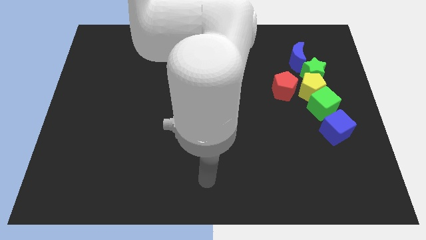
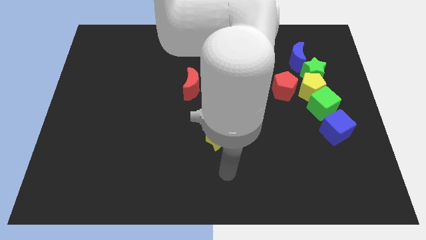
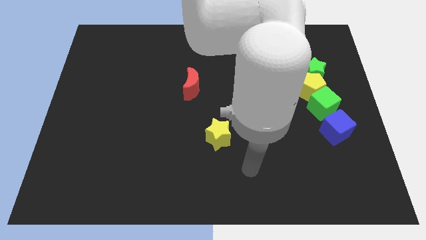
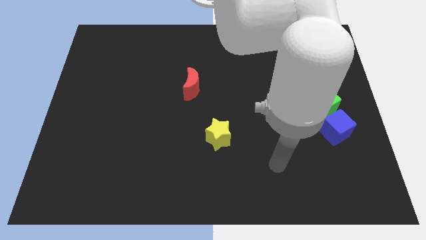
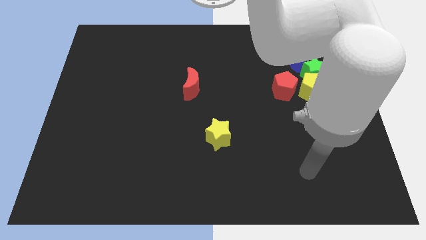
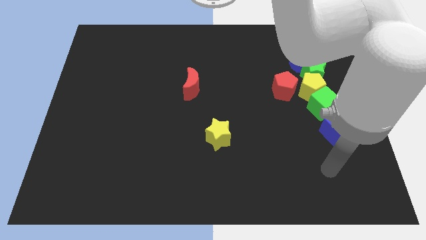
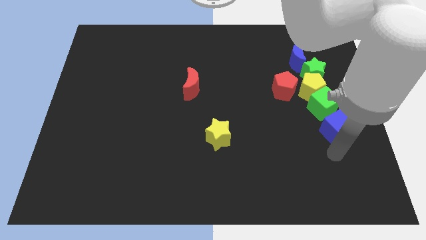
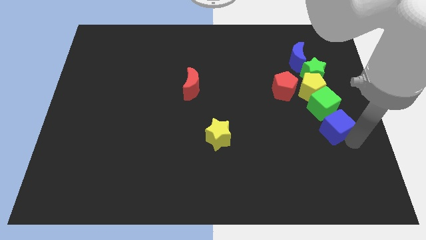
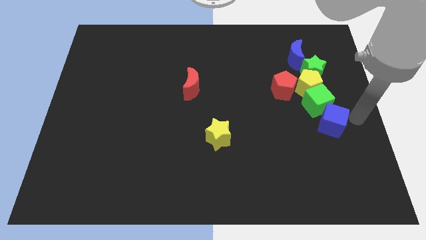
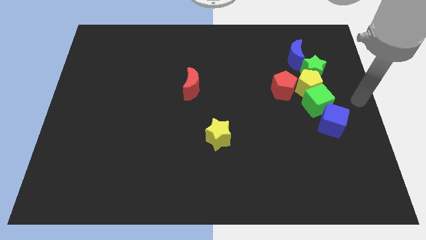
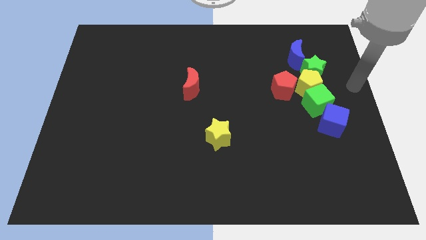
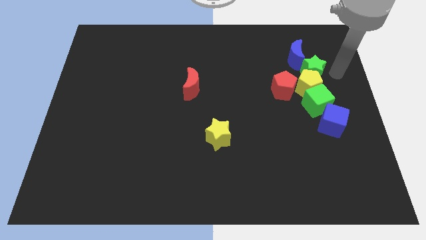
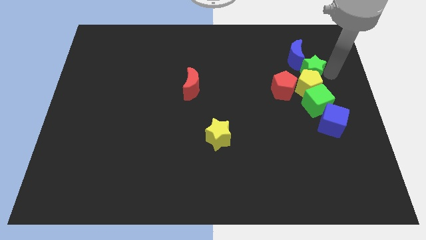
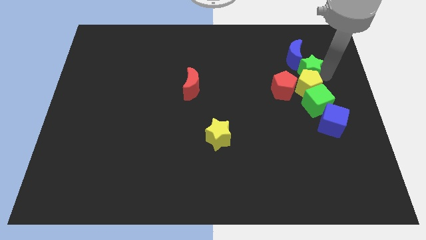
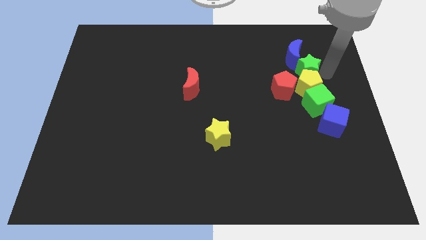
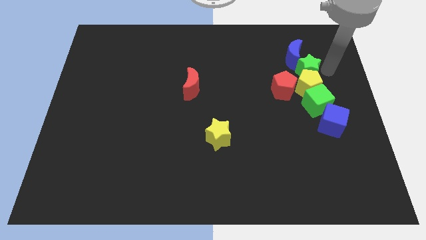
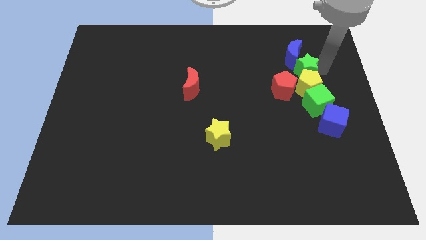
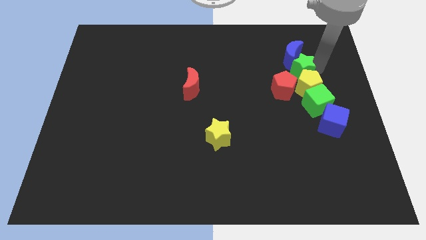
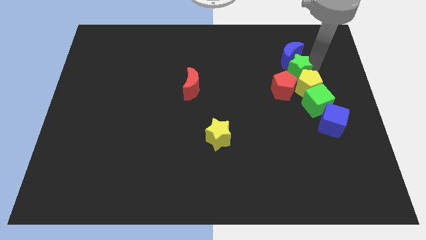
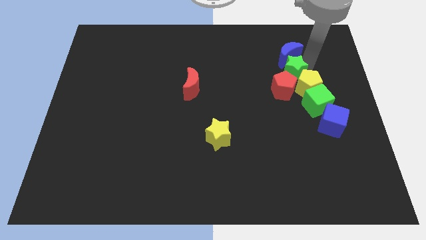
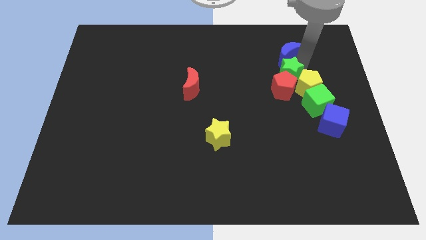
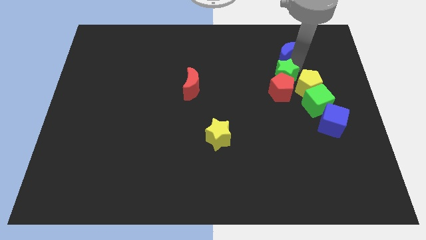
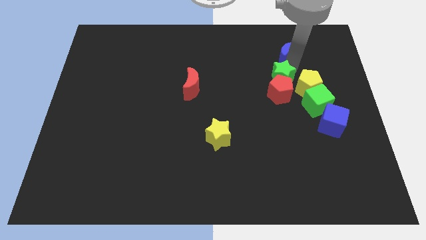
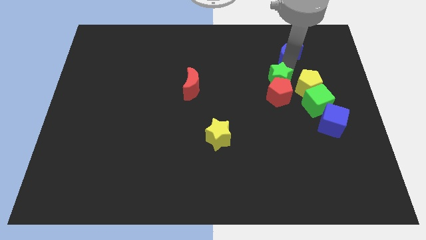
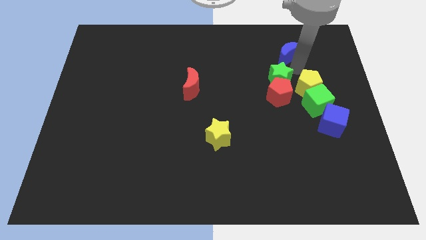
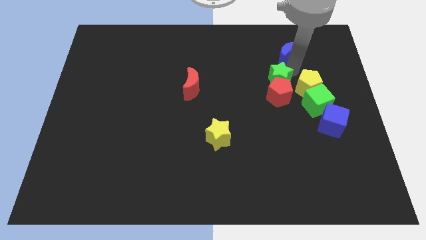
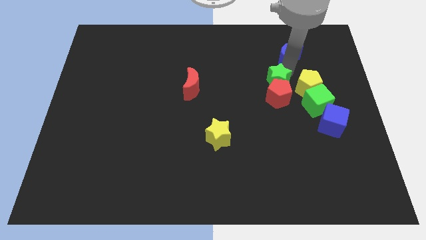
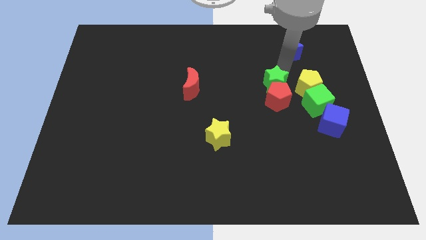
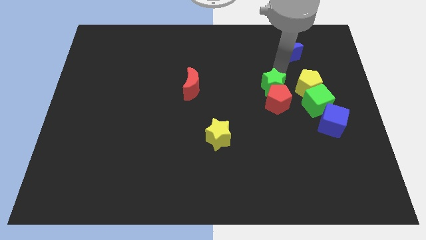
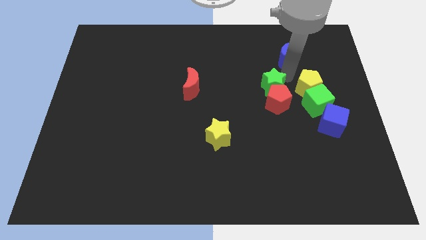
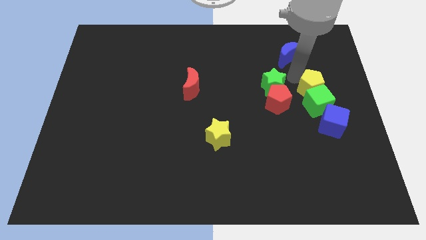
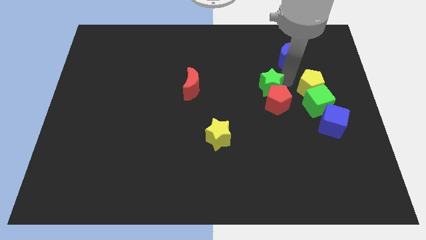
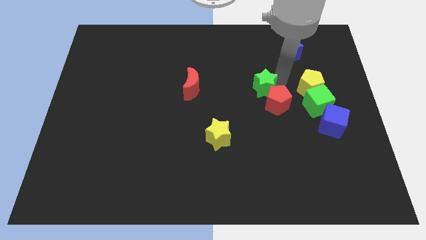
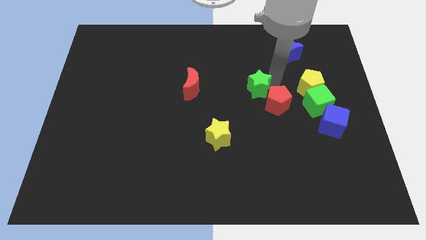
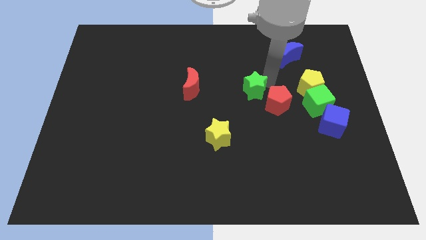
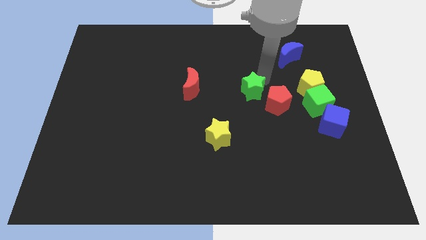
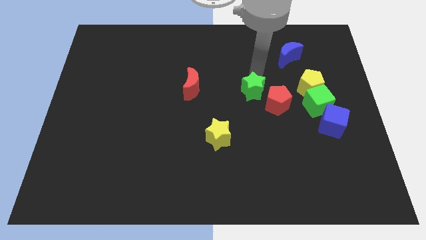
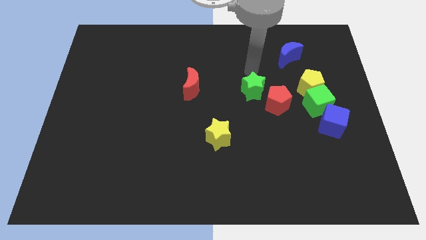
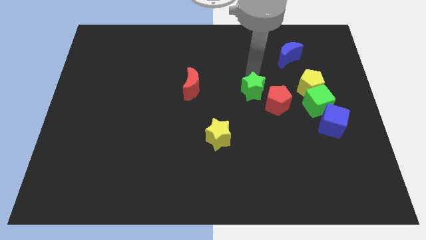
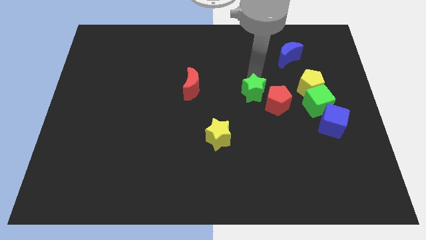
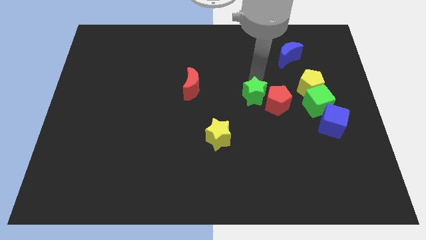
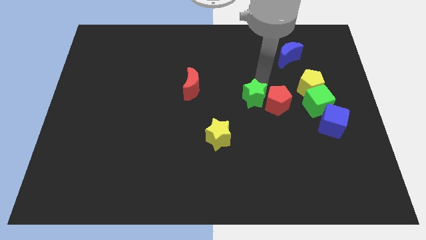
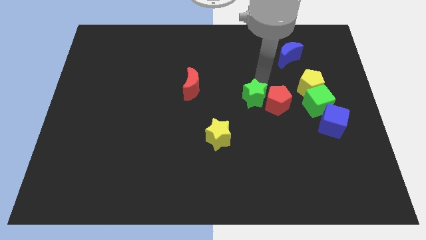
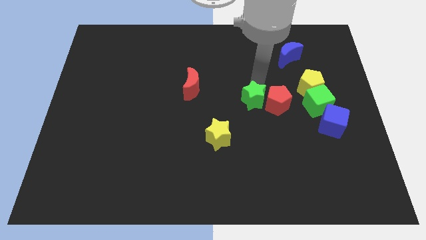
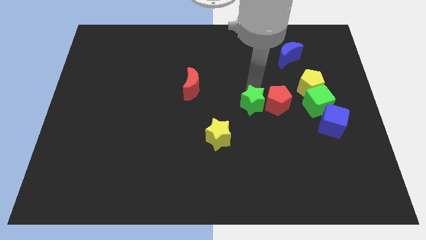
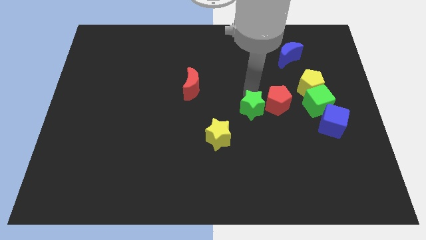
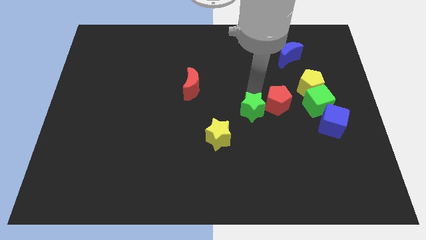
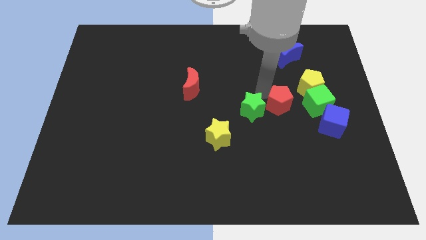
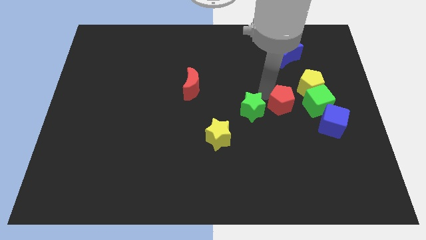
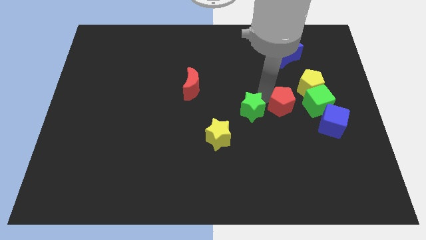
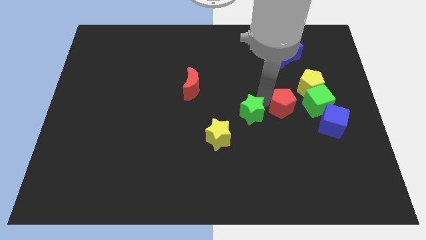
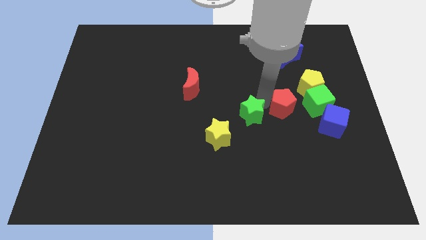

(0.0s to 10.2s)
slide the green star down and then to the left

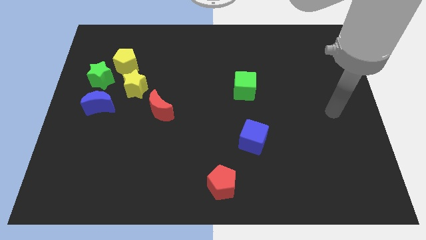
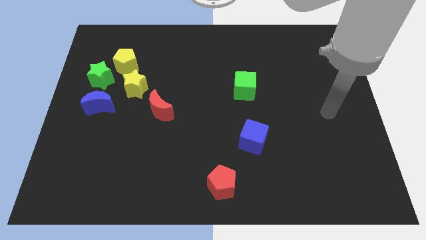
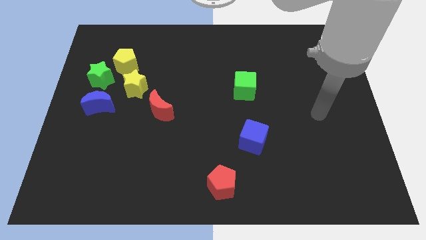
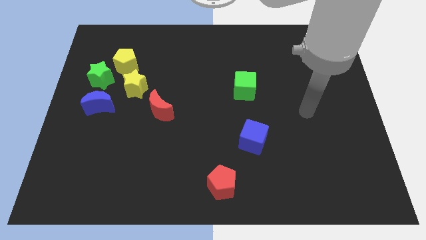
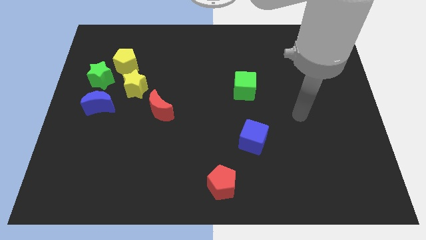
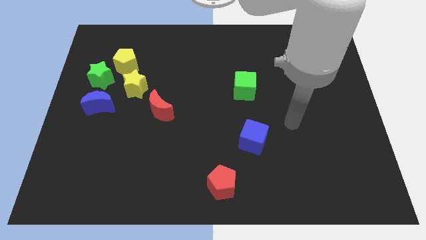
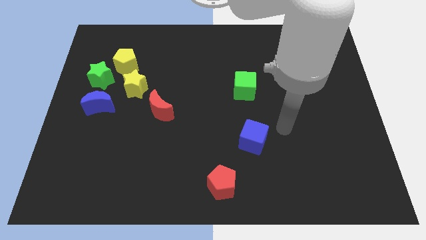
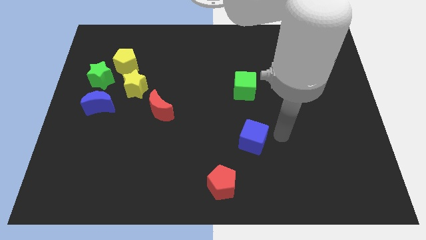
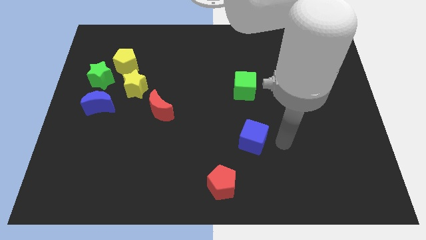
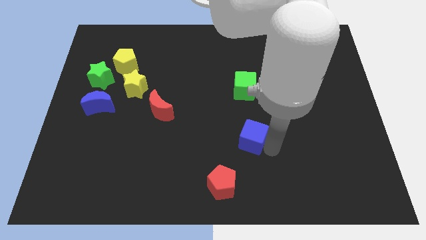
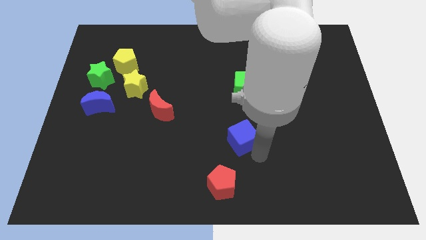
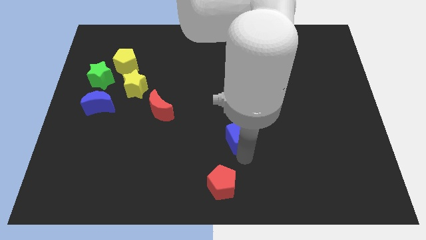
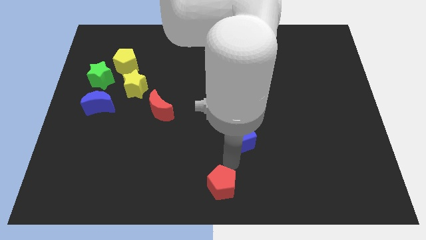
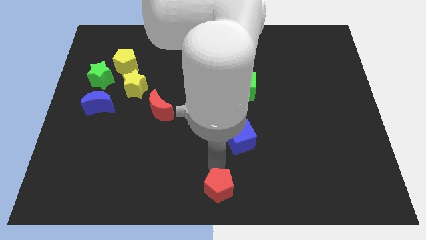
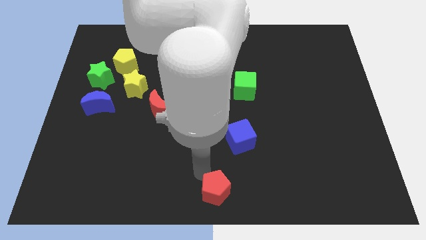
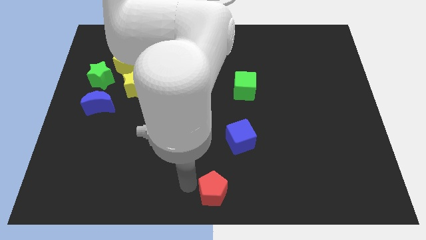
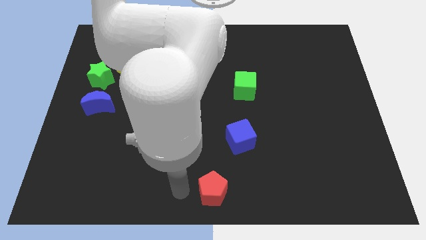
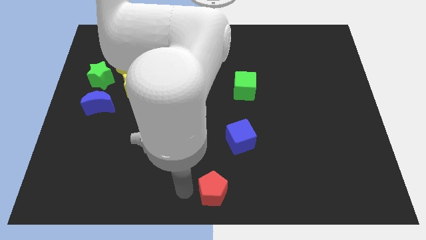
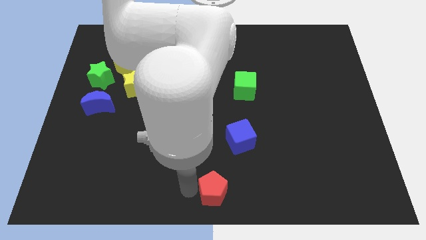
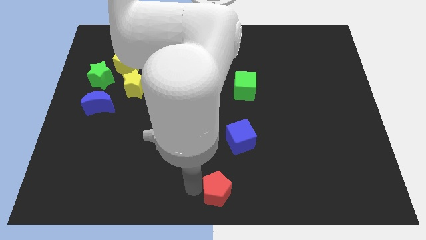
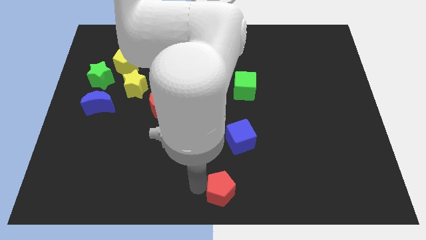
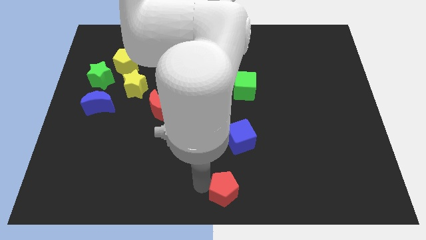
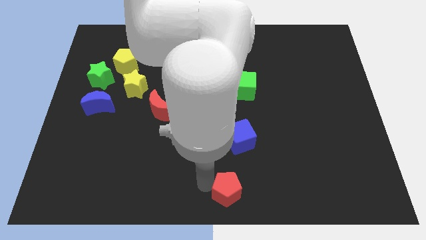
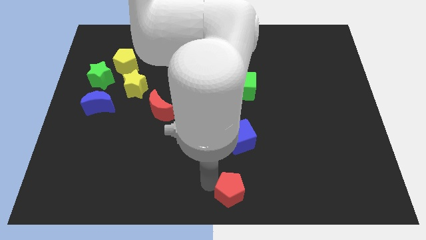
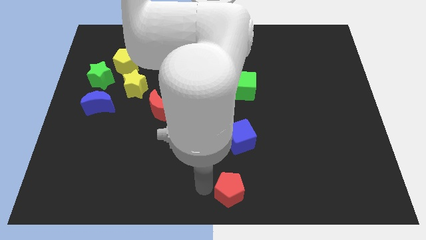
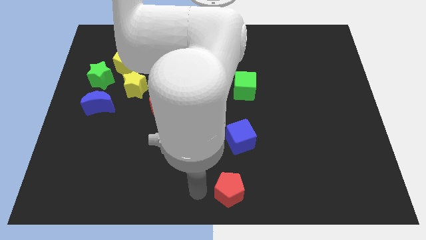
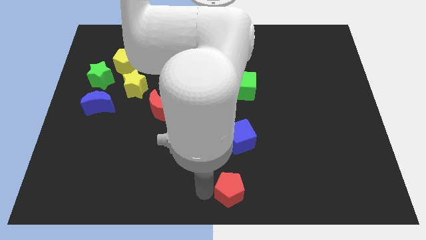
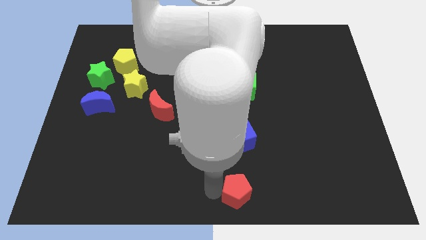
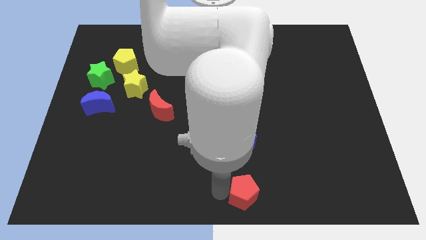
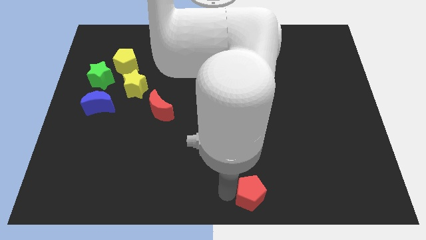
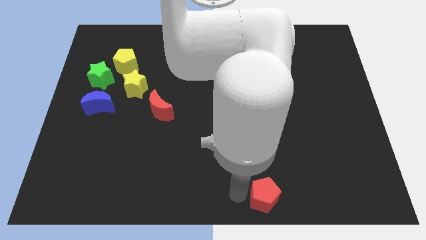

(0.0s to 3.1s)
push the red pentagon a bit to the right

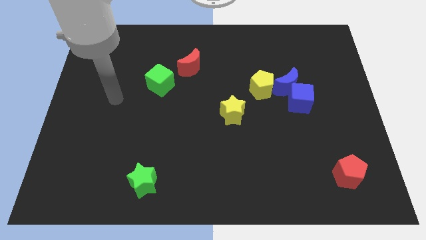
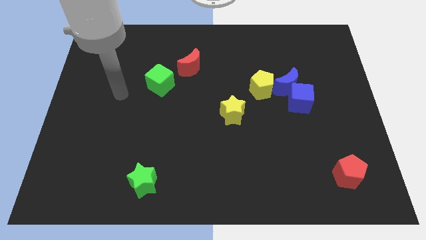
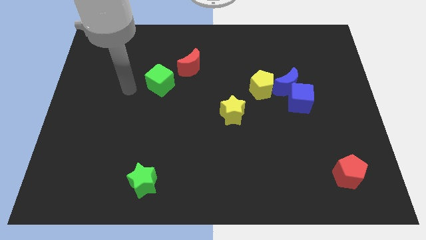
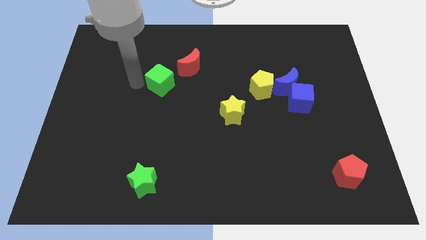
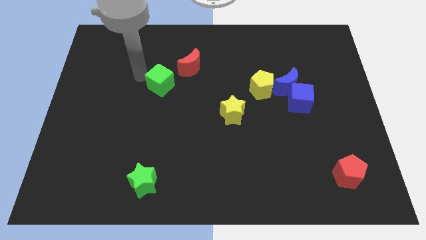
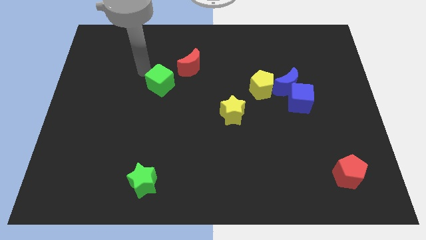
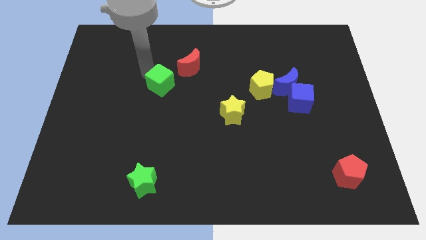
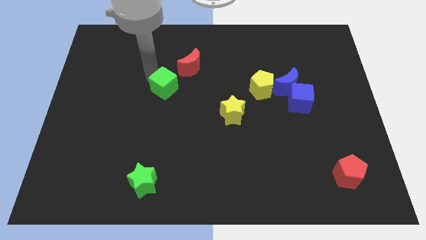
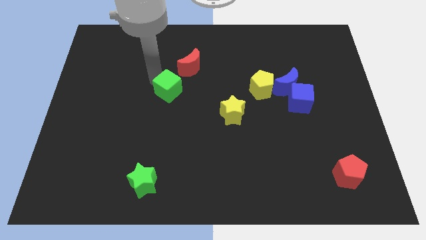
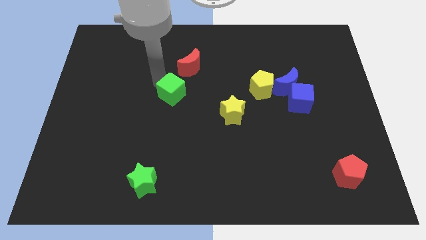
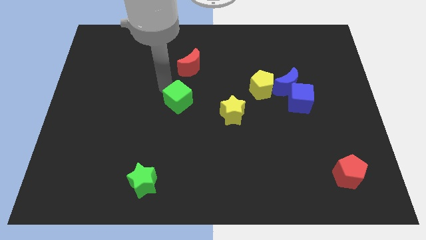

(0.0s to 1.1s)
slightly move the green cube downwards and to the right diagonally
